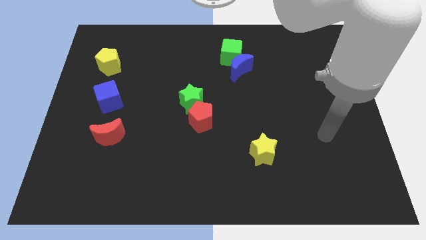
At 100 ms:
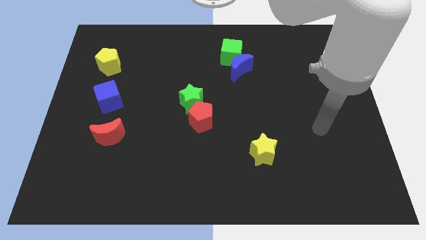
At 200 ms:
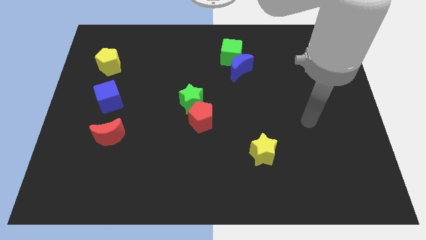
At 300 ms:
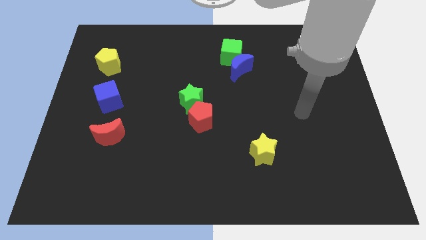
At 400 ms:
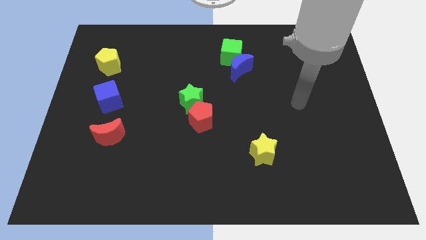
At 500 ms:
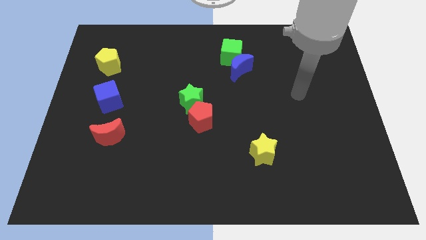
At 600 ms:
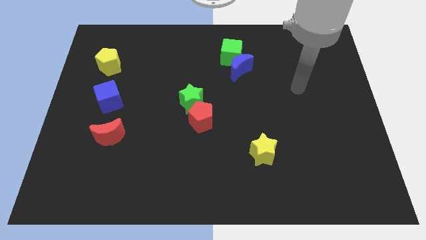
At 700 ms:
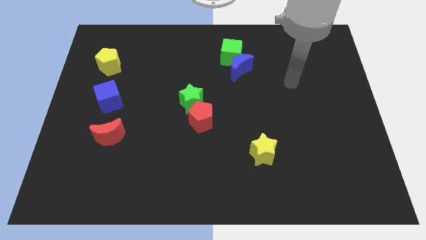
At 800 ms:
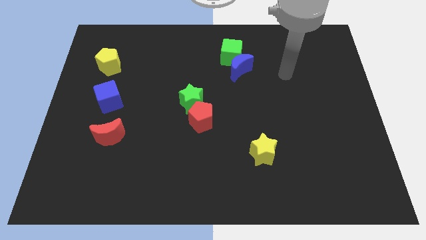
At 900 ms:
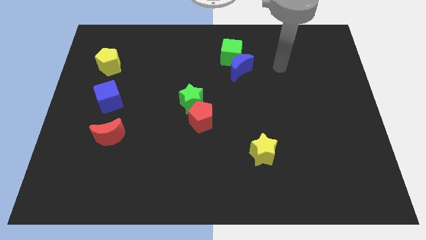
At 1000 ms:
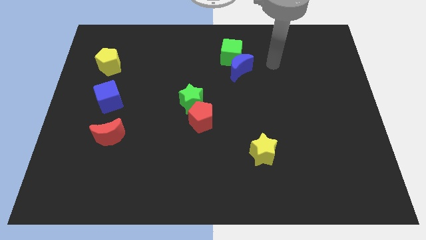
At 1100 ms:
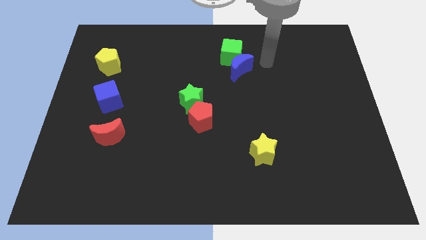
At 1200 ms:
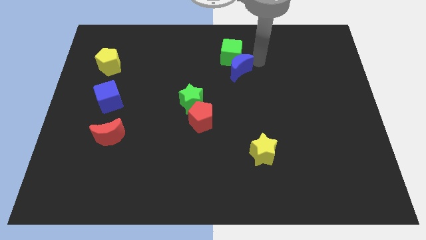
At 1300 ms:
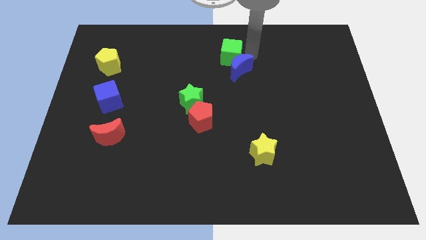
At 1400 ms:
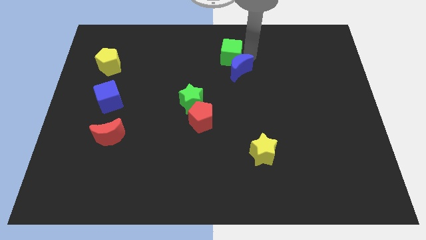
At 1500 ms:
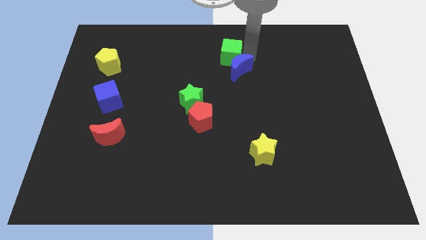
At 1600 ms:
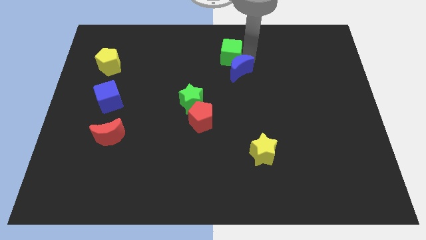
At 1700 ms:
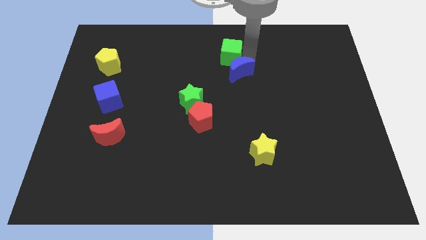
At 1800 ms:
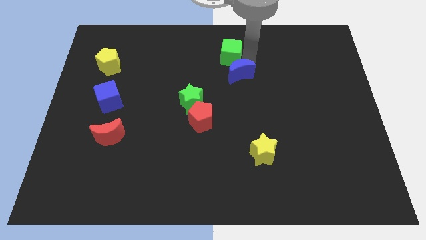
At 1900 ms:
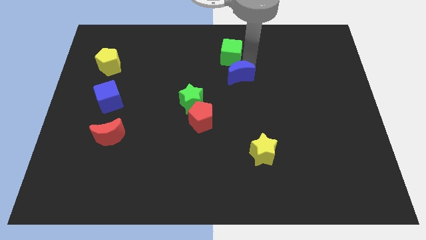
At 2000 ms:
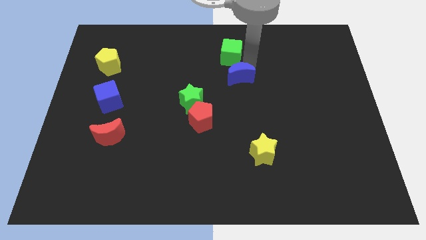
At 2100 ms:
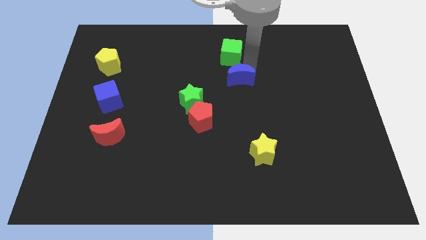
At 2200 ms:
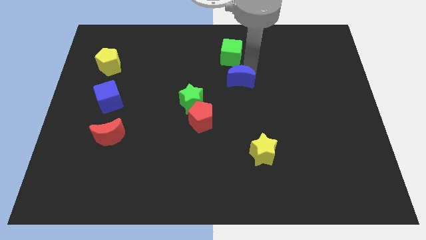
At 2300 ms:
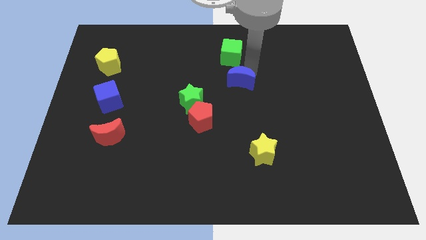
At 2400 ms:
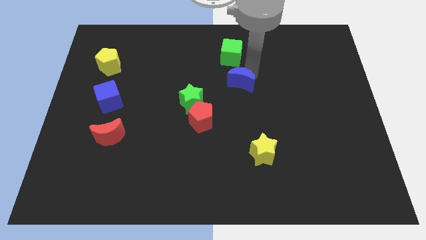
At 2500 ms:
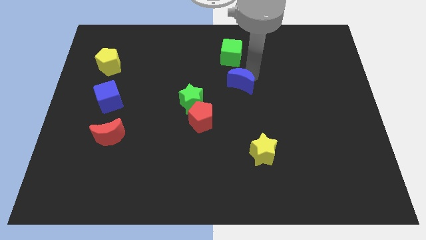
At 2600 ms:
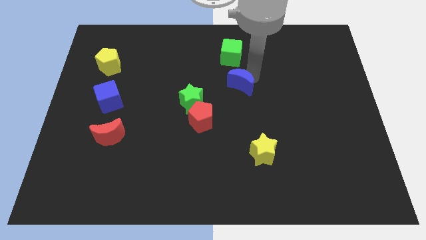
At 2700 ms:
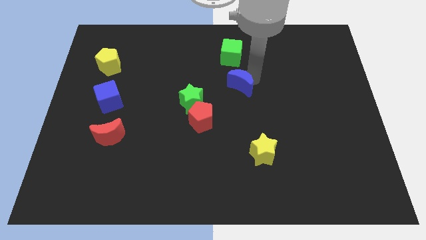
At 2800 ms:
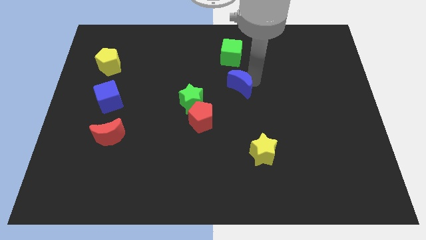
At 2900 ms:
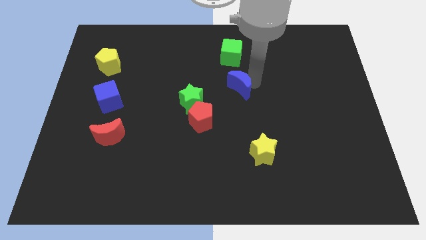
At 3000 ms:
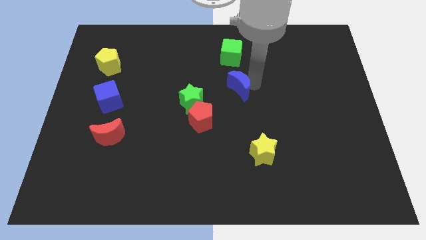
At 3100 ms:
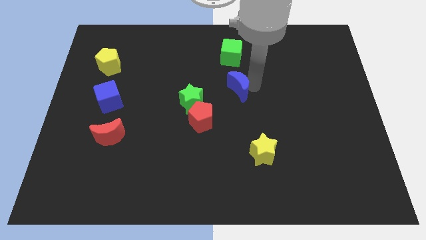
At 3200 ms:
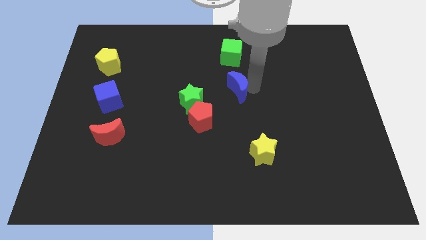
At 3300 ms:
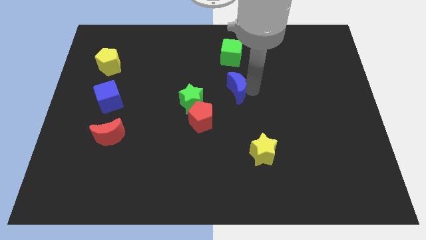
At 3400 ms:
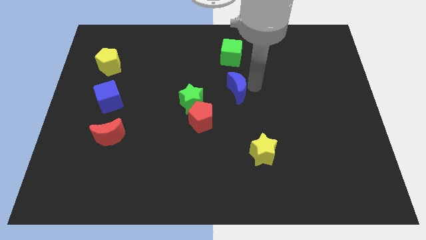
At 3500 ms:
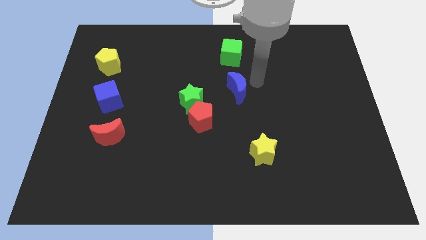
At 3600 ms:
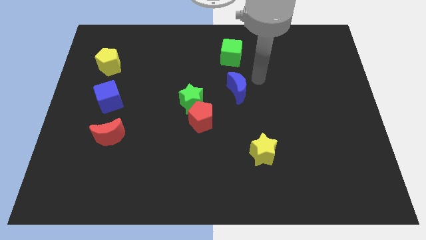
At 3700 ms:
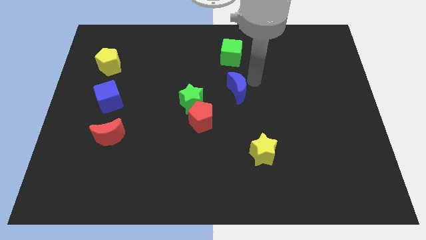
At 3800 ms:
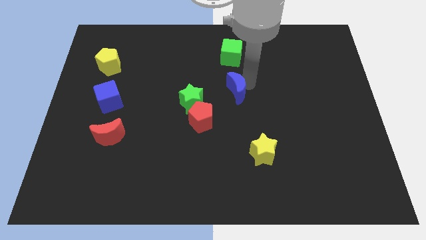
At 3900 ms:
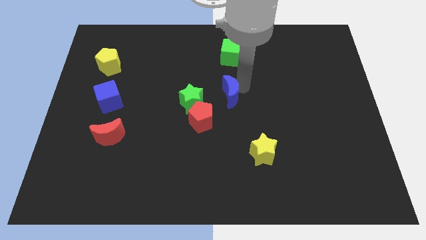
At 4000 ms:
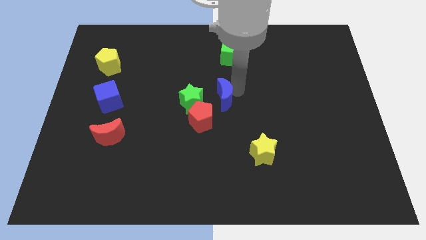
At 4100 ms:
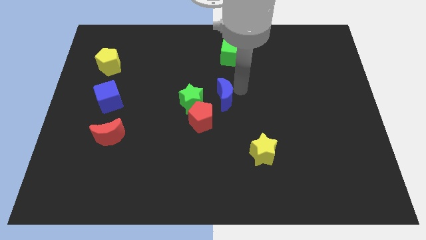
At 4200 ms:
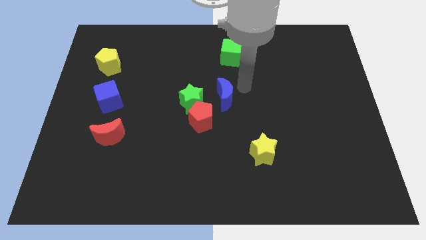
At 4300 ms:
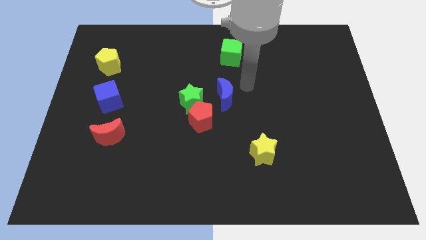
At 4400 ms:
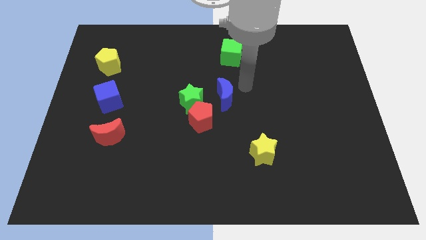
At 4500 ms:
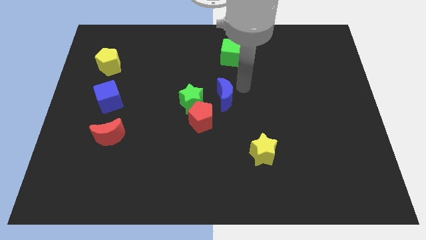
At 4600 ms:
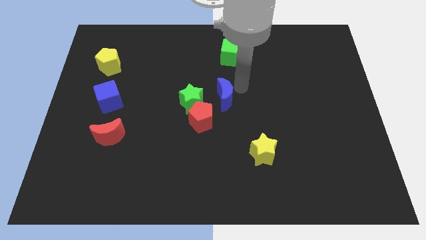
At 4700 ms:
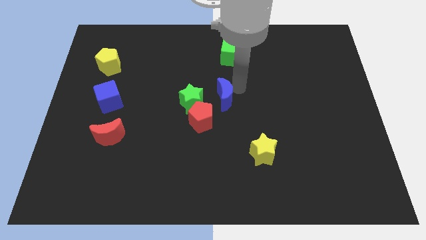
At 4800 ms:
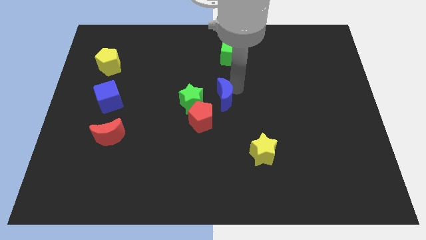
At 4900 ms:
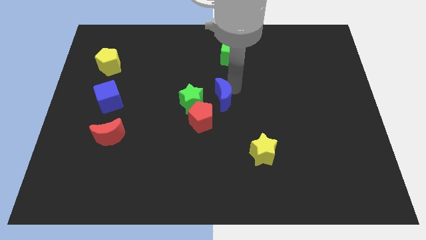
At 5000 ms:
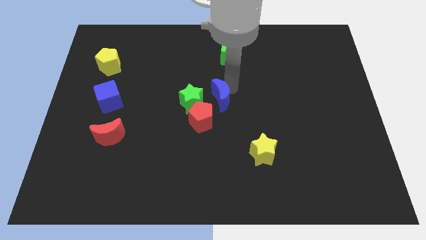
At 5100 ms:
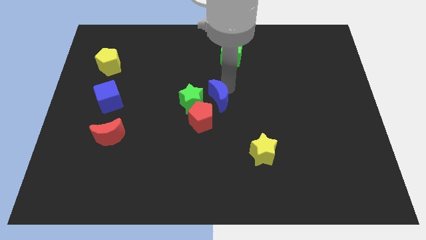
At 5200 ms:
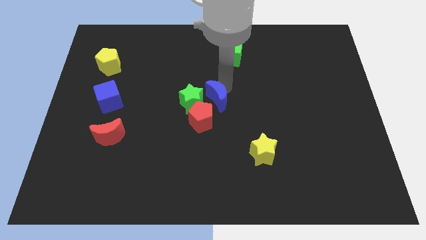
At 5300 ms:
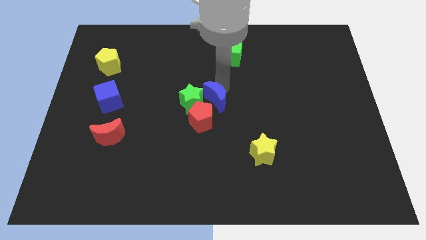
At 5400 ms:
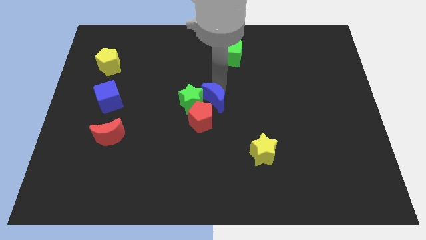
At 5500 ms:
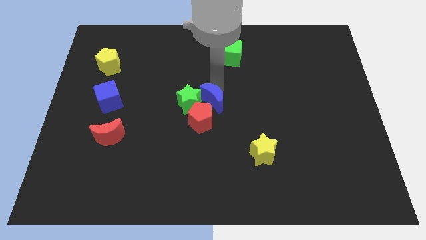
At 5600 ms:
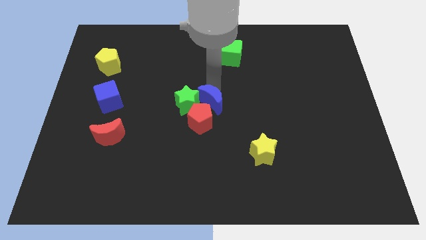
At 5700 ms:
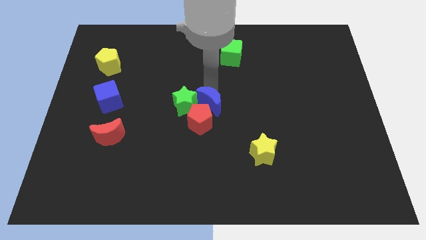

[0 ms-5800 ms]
push the blue moon next to the red pentagon

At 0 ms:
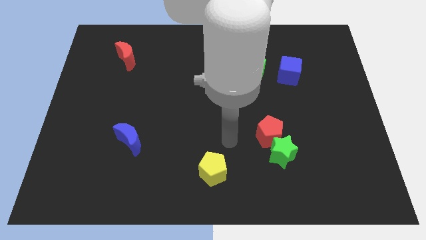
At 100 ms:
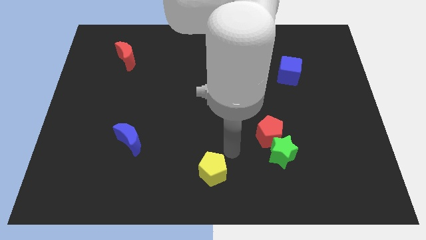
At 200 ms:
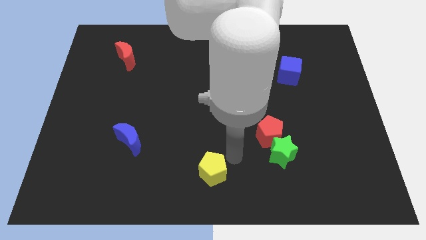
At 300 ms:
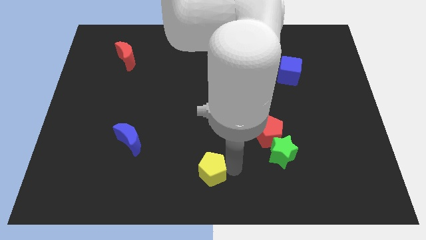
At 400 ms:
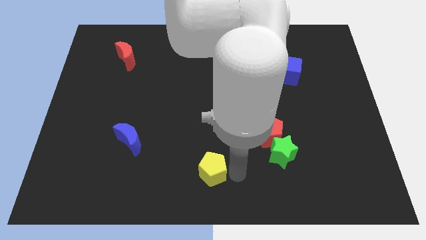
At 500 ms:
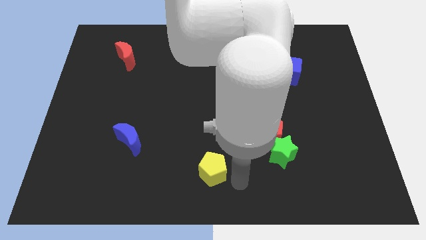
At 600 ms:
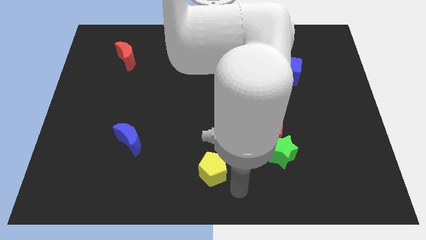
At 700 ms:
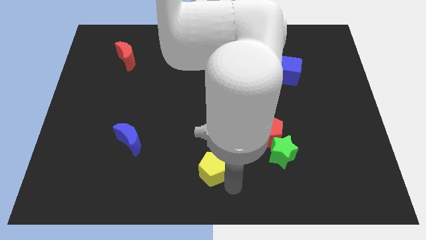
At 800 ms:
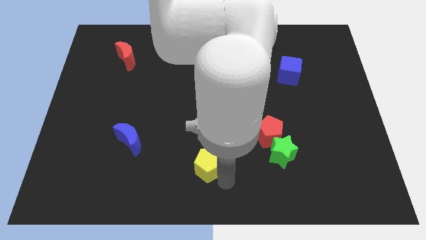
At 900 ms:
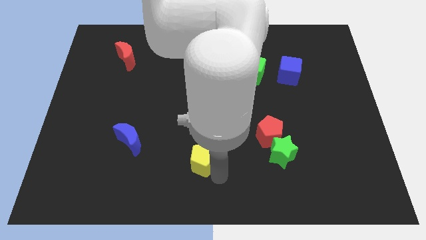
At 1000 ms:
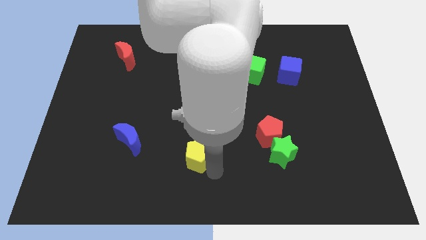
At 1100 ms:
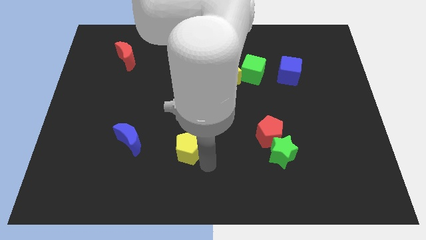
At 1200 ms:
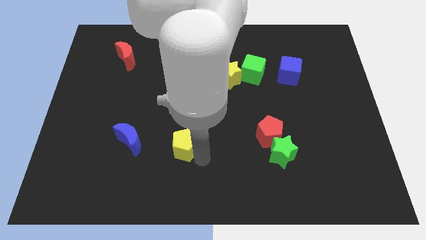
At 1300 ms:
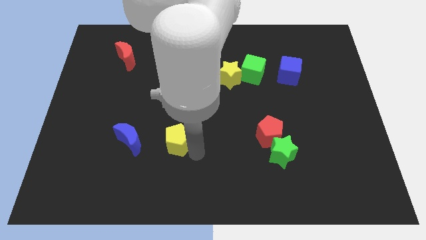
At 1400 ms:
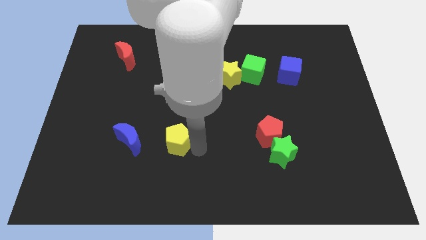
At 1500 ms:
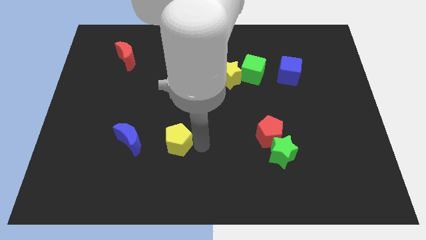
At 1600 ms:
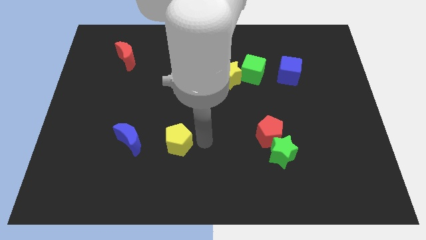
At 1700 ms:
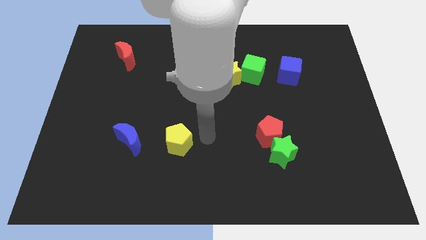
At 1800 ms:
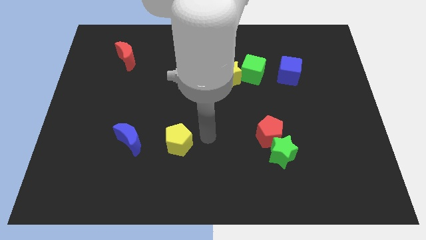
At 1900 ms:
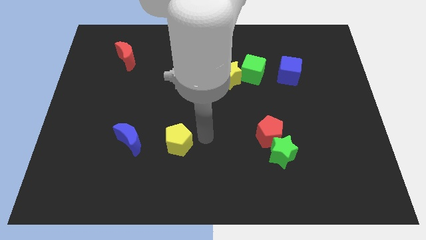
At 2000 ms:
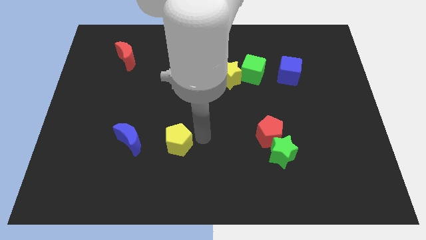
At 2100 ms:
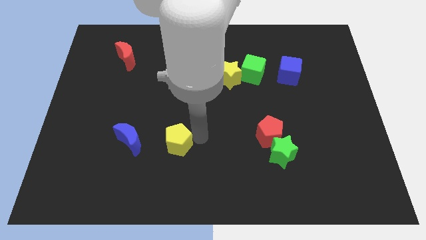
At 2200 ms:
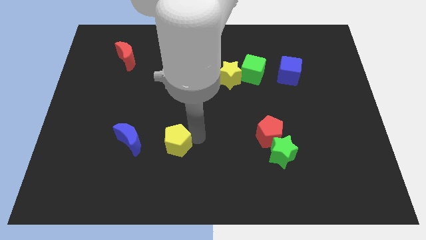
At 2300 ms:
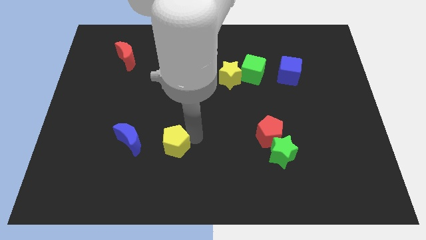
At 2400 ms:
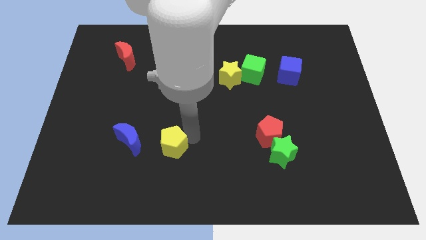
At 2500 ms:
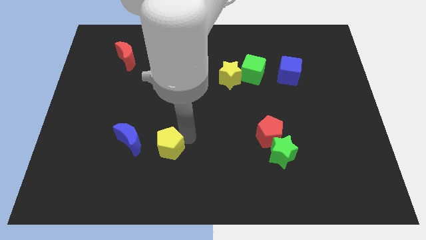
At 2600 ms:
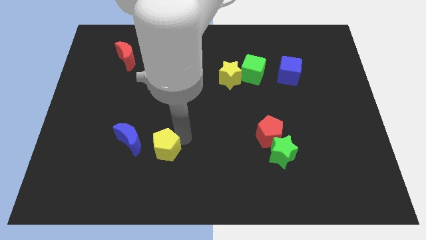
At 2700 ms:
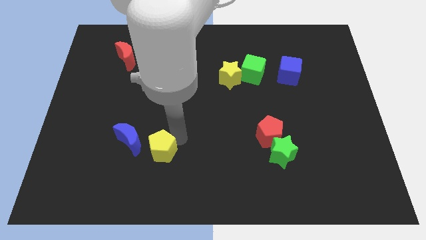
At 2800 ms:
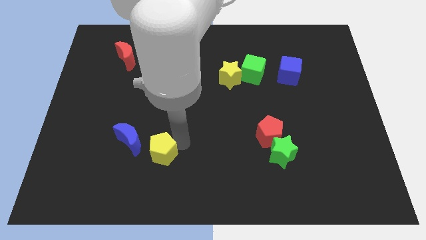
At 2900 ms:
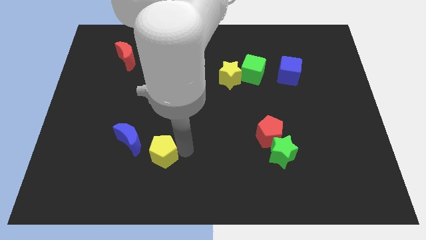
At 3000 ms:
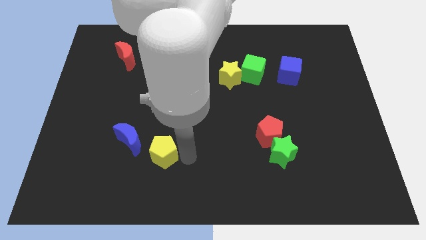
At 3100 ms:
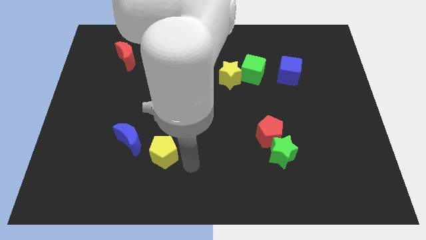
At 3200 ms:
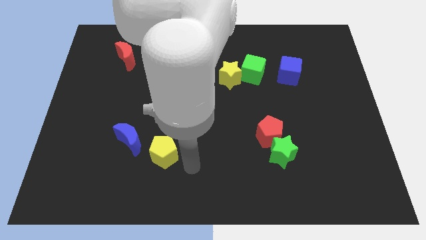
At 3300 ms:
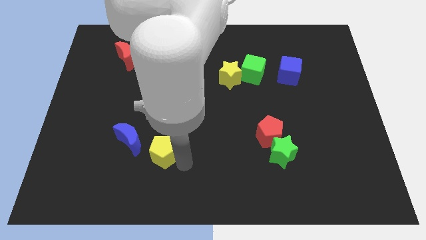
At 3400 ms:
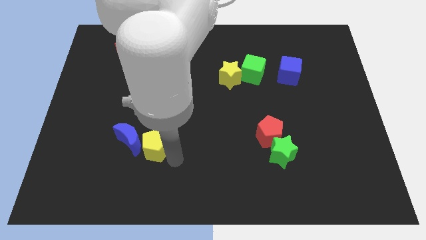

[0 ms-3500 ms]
move the yellow pentagon close to the blue moon
